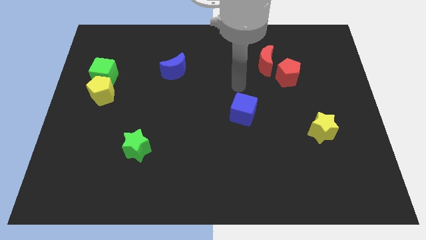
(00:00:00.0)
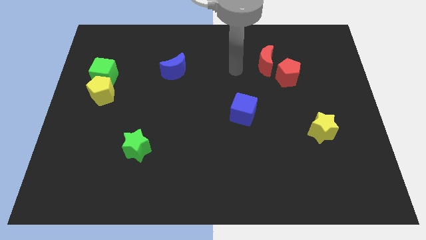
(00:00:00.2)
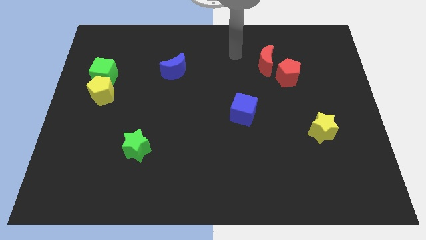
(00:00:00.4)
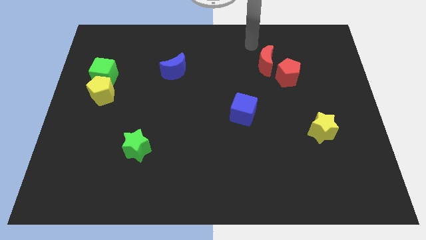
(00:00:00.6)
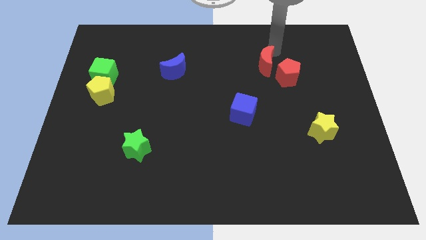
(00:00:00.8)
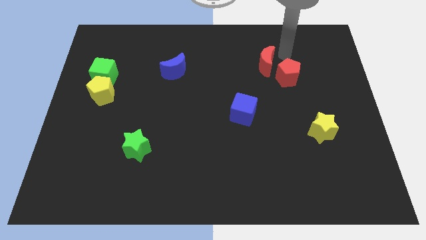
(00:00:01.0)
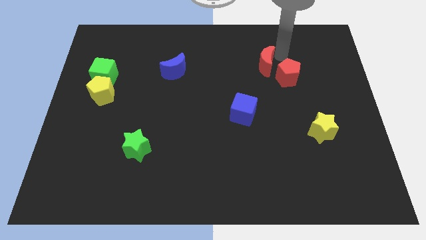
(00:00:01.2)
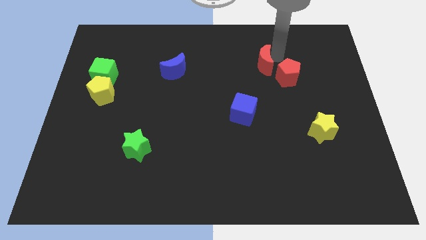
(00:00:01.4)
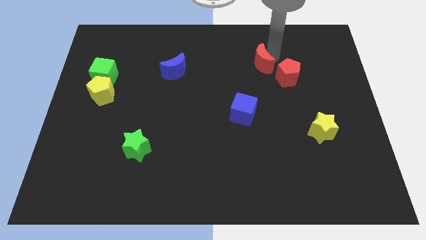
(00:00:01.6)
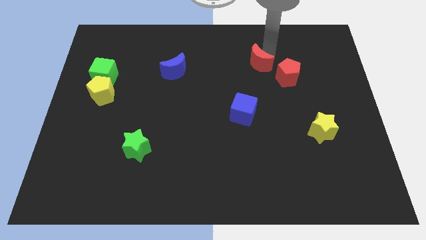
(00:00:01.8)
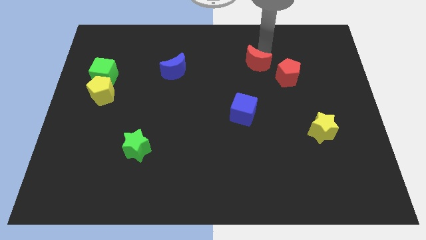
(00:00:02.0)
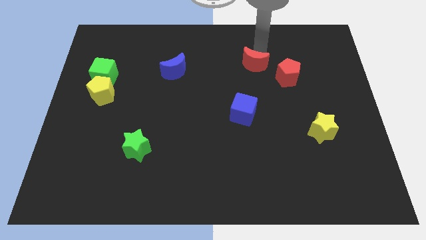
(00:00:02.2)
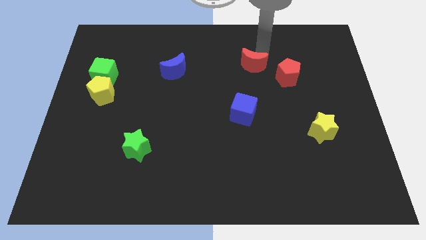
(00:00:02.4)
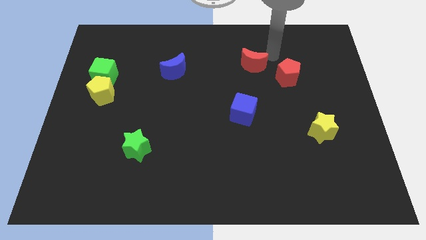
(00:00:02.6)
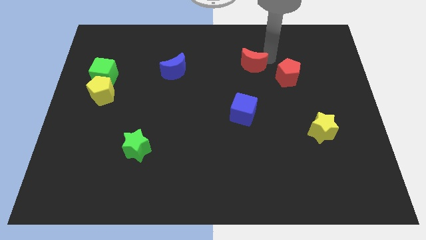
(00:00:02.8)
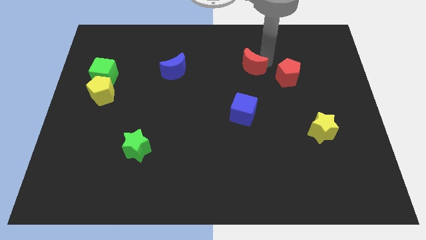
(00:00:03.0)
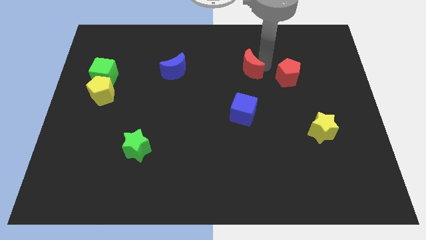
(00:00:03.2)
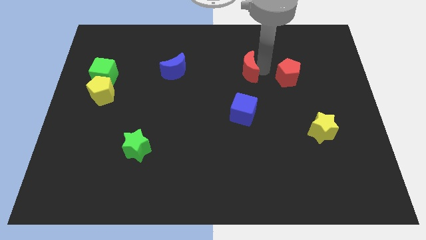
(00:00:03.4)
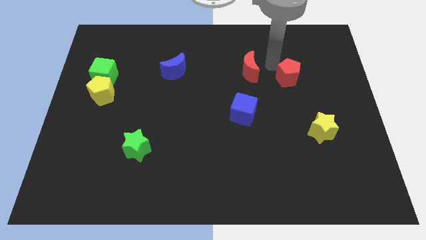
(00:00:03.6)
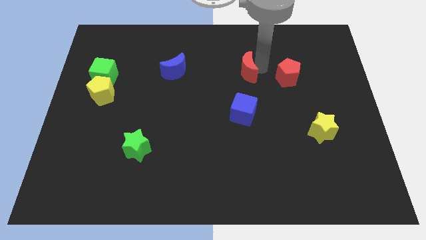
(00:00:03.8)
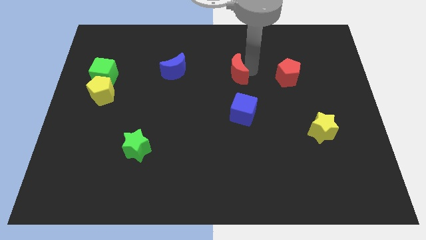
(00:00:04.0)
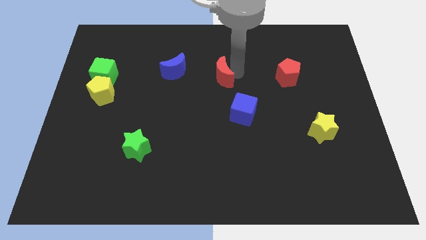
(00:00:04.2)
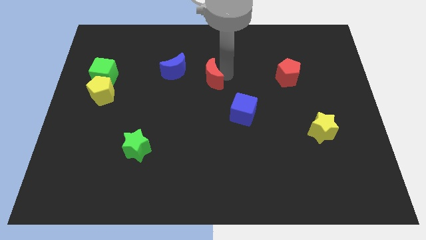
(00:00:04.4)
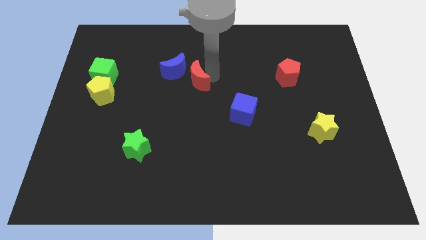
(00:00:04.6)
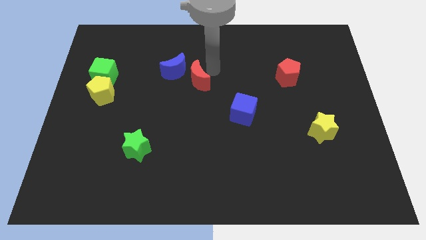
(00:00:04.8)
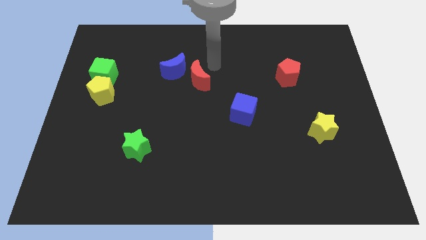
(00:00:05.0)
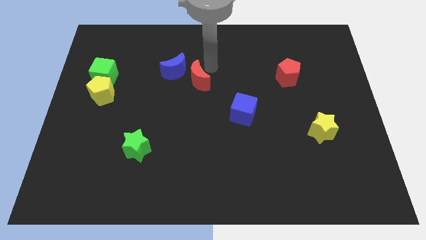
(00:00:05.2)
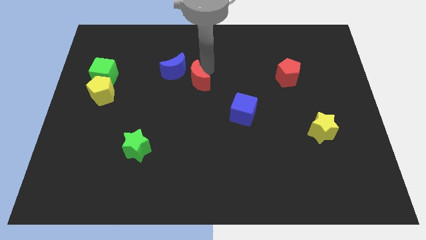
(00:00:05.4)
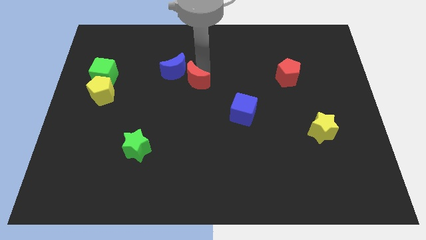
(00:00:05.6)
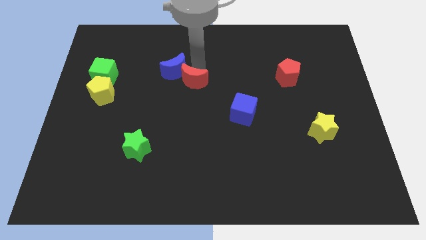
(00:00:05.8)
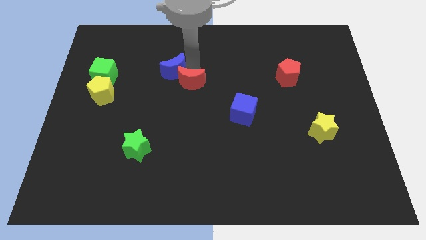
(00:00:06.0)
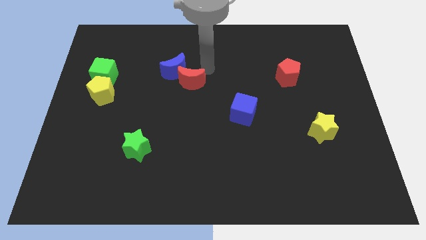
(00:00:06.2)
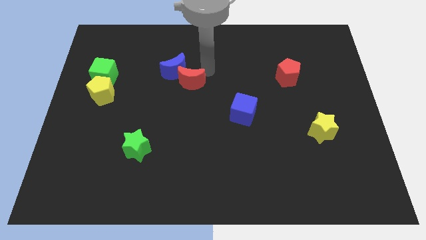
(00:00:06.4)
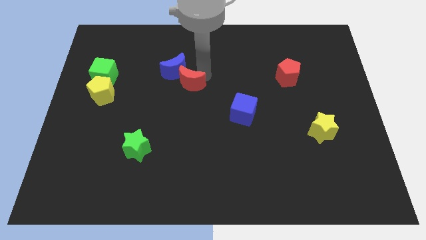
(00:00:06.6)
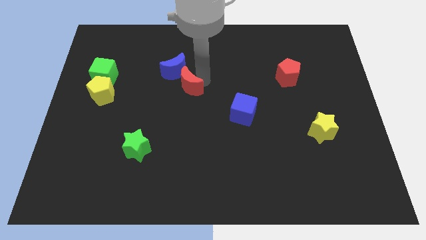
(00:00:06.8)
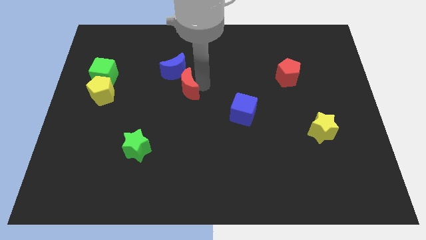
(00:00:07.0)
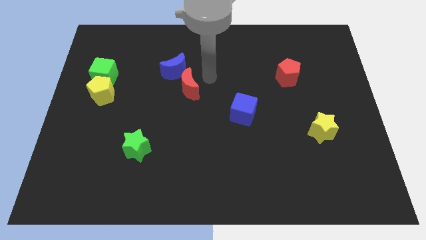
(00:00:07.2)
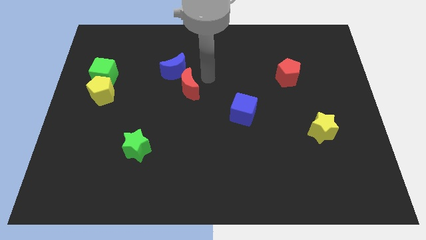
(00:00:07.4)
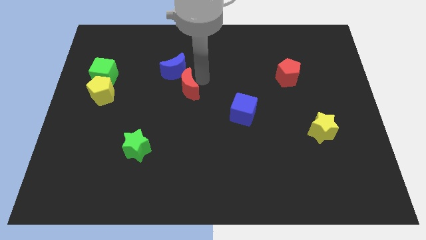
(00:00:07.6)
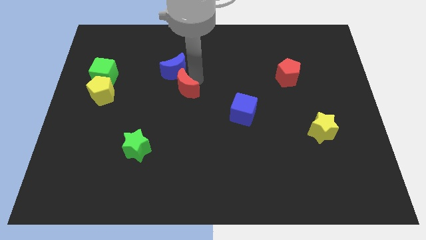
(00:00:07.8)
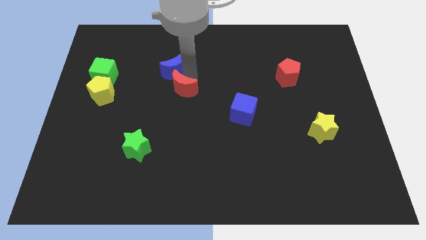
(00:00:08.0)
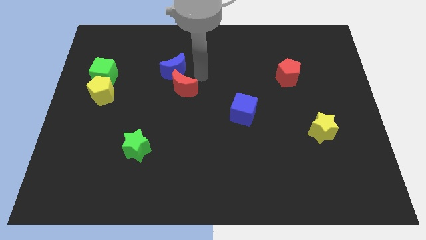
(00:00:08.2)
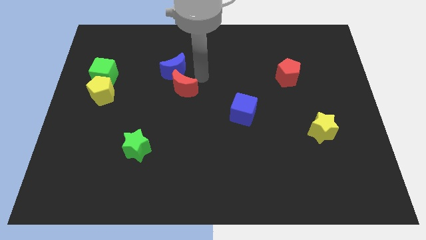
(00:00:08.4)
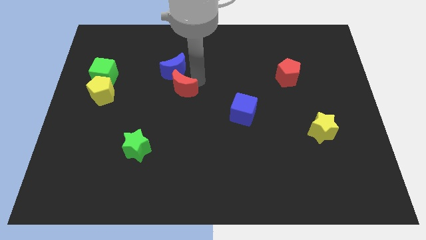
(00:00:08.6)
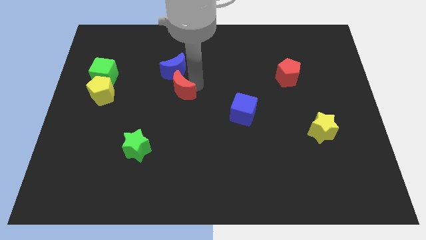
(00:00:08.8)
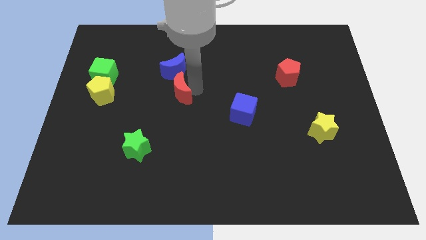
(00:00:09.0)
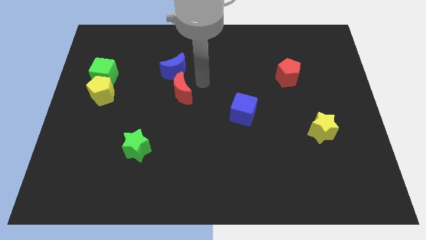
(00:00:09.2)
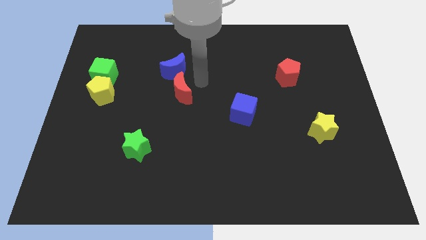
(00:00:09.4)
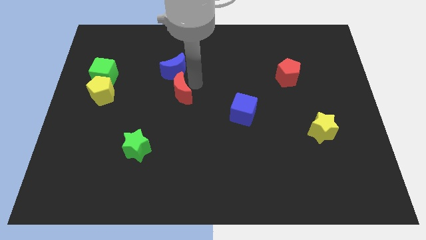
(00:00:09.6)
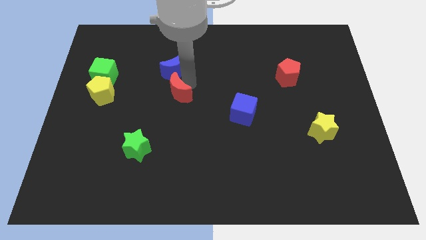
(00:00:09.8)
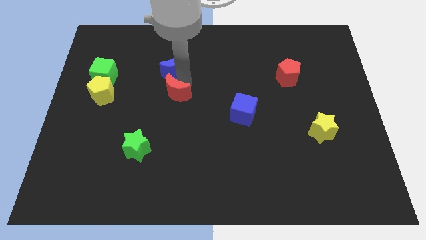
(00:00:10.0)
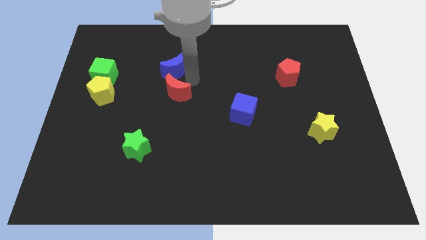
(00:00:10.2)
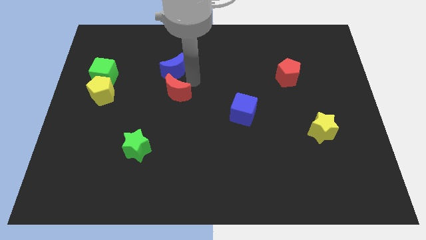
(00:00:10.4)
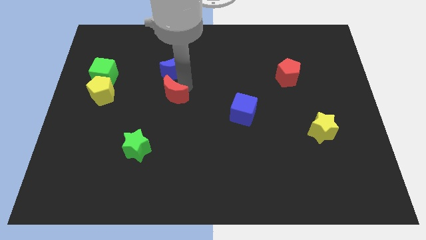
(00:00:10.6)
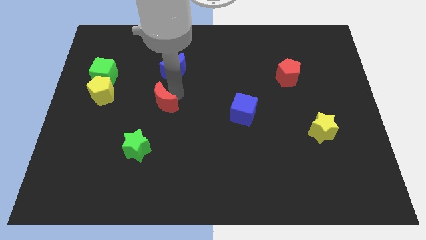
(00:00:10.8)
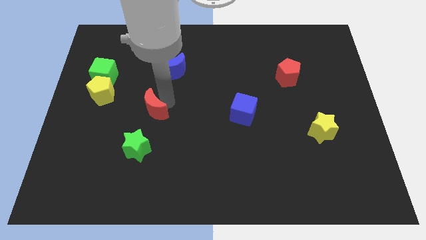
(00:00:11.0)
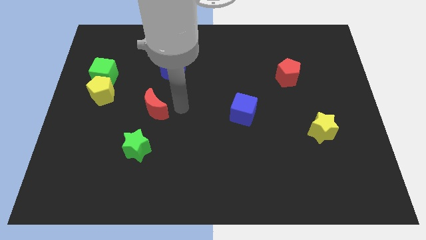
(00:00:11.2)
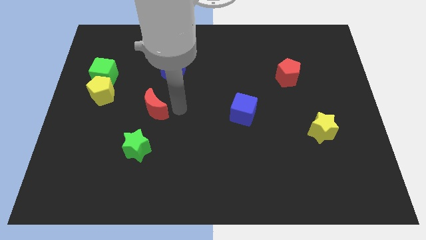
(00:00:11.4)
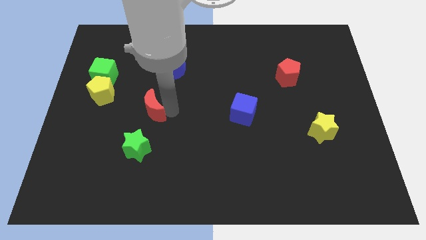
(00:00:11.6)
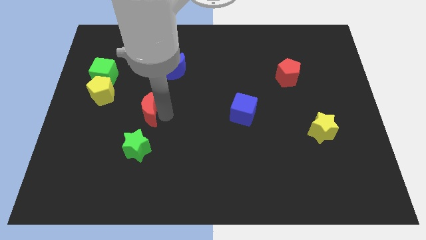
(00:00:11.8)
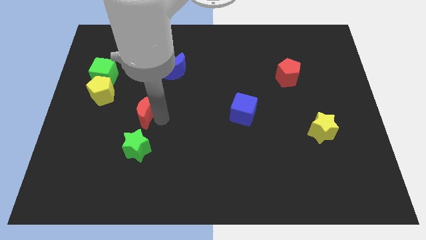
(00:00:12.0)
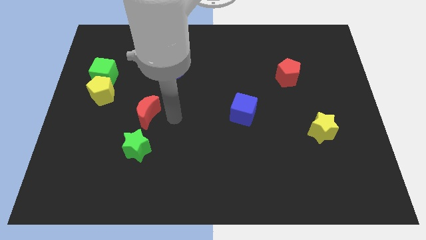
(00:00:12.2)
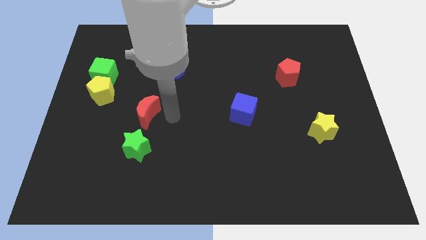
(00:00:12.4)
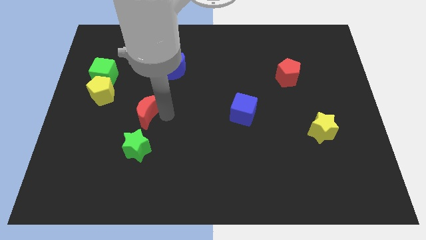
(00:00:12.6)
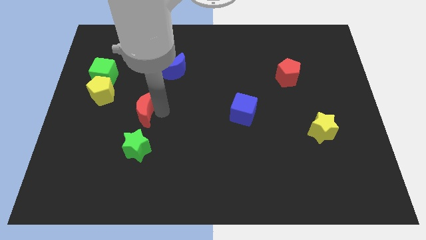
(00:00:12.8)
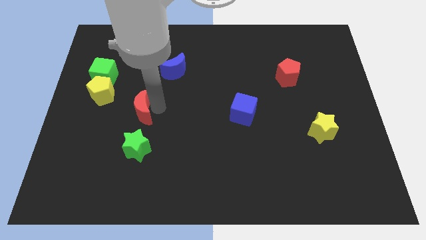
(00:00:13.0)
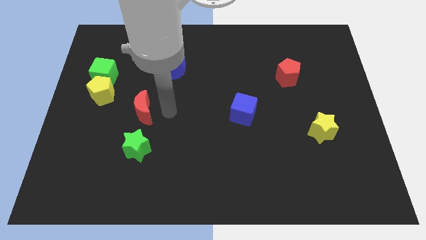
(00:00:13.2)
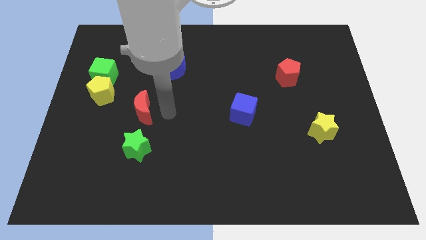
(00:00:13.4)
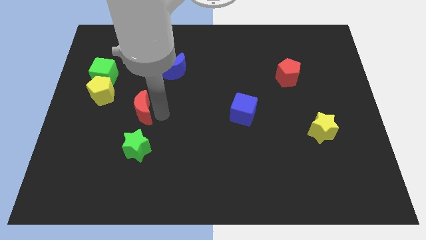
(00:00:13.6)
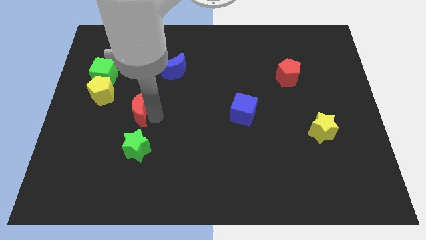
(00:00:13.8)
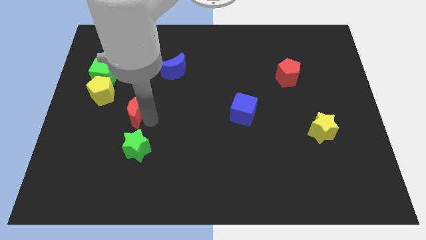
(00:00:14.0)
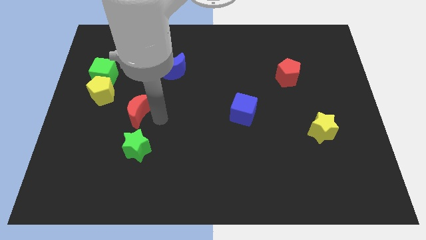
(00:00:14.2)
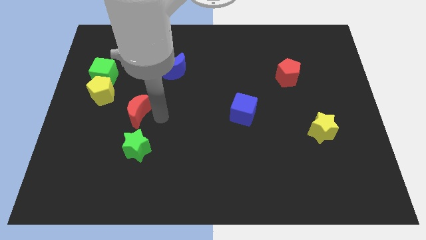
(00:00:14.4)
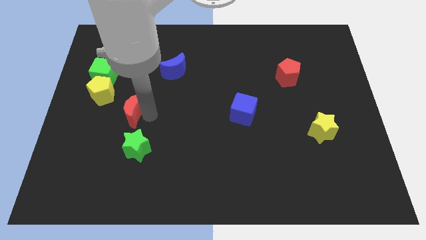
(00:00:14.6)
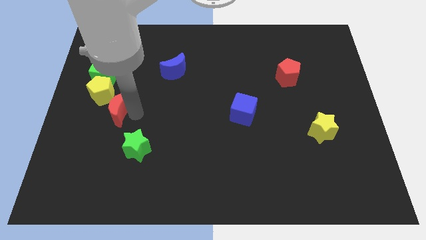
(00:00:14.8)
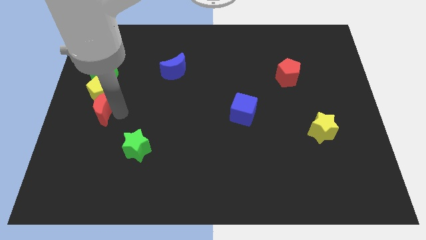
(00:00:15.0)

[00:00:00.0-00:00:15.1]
put the red moon to the left side of the board
